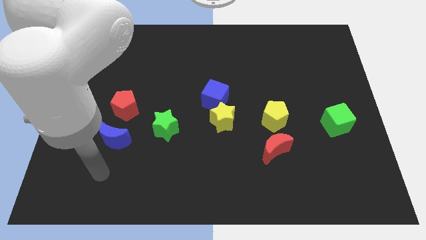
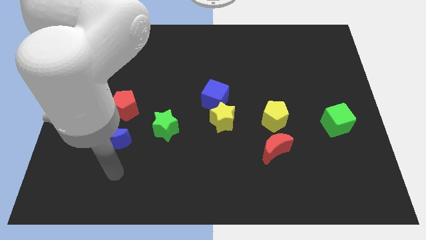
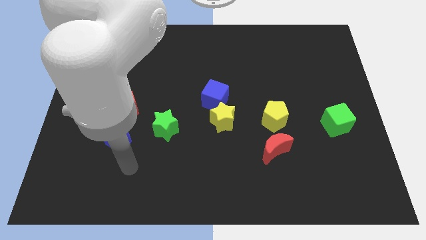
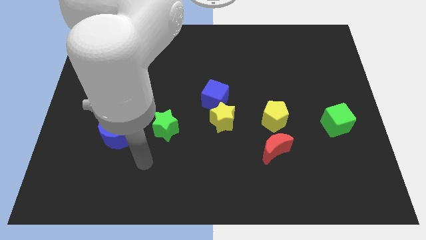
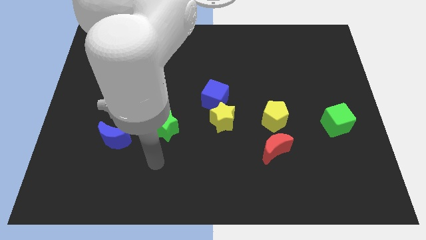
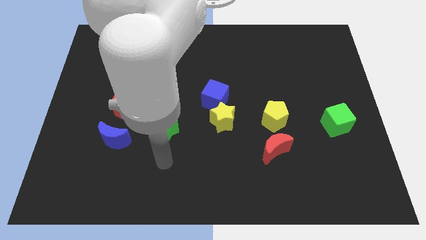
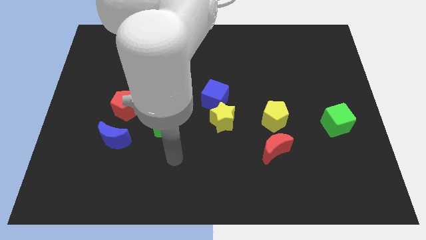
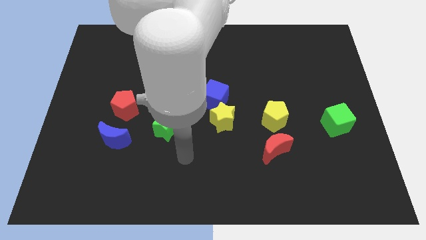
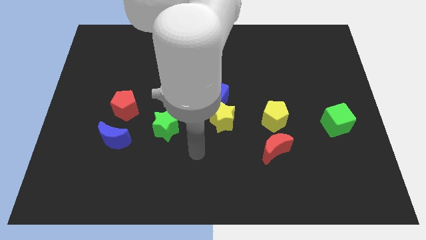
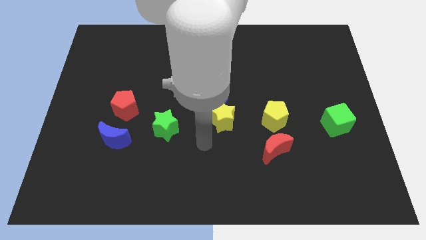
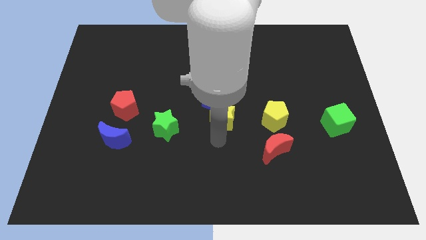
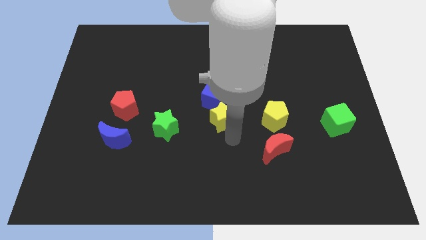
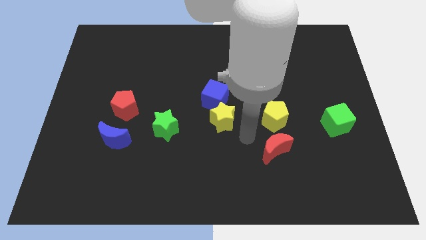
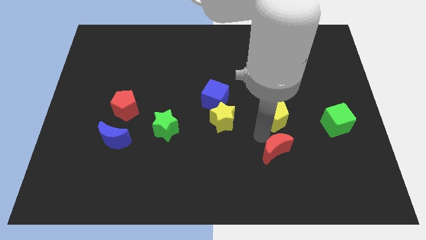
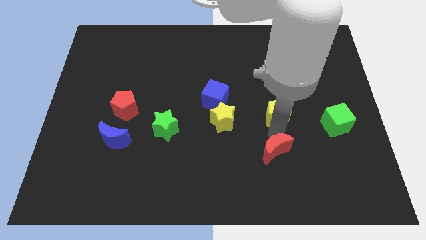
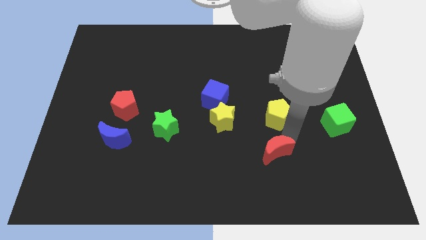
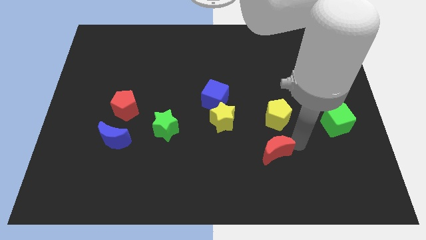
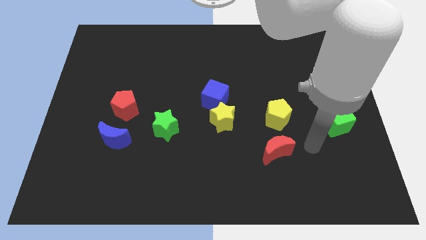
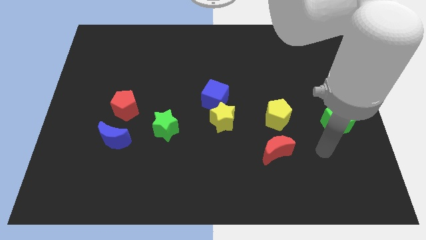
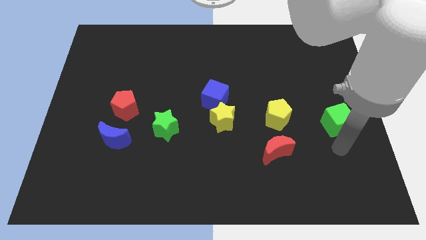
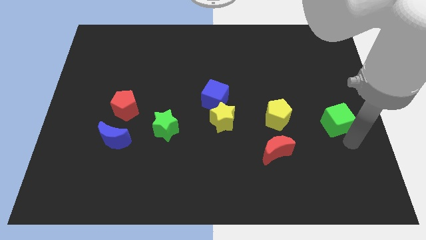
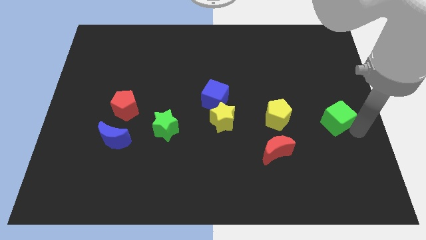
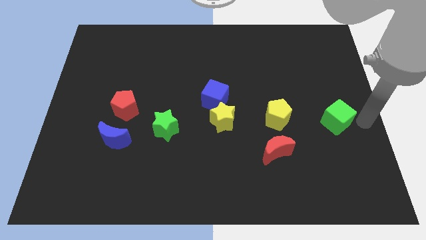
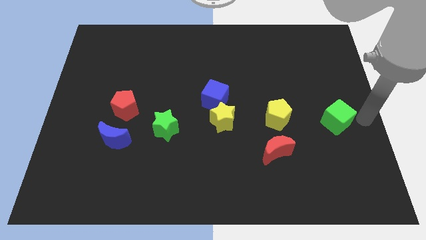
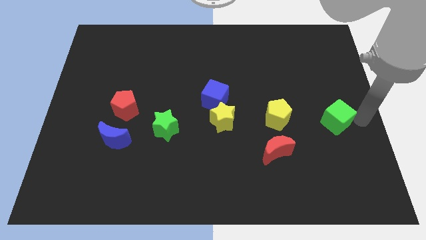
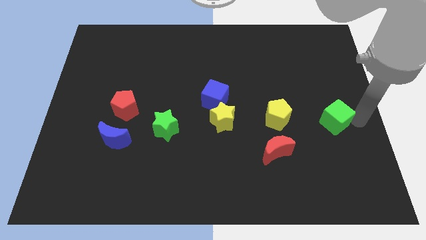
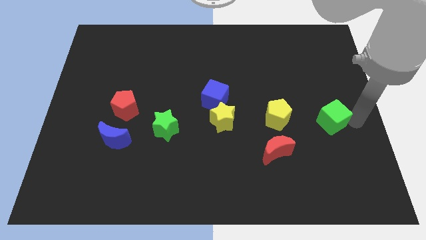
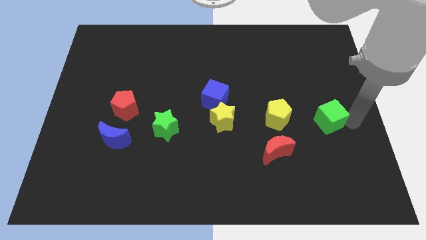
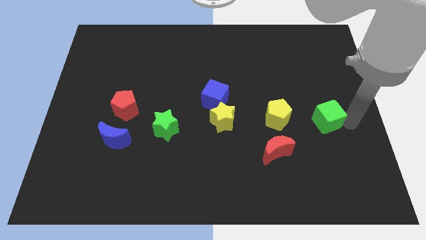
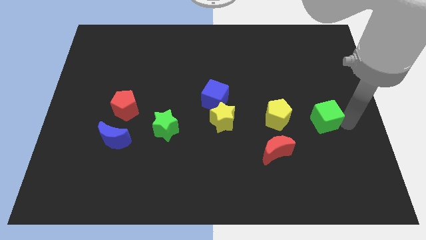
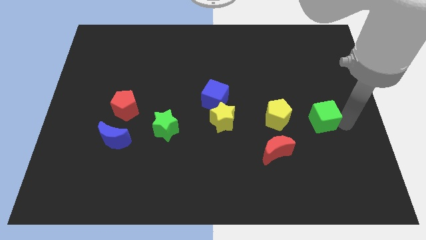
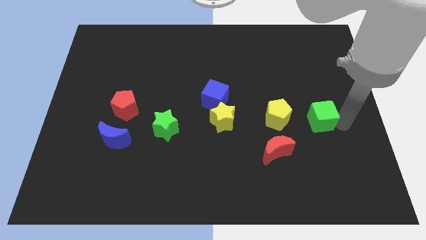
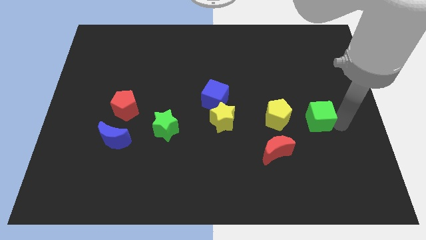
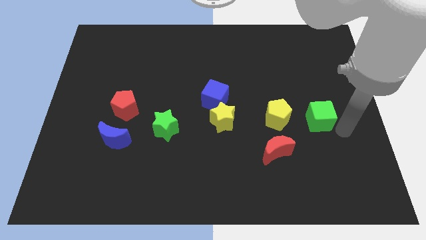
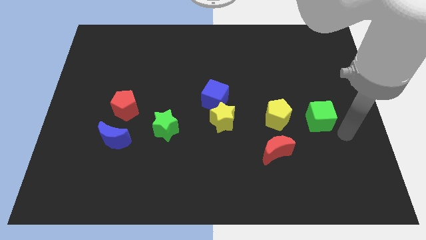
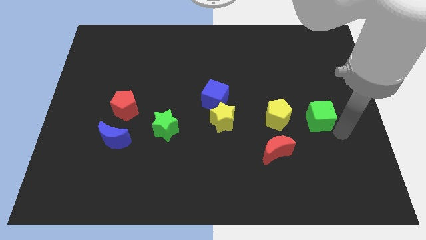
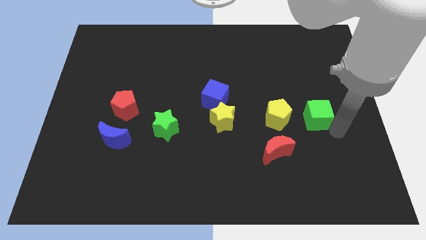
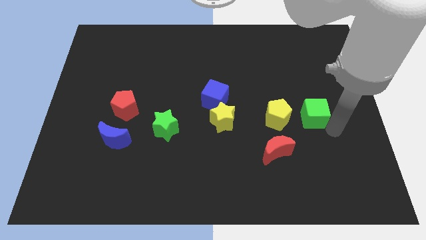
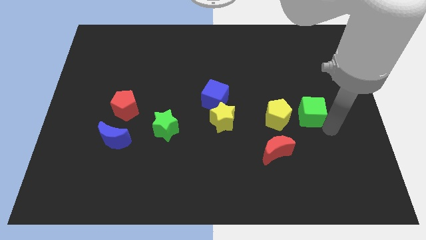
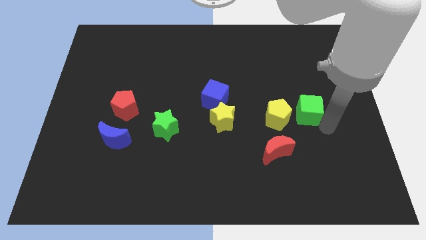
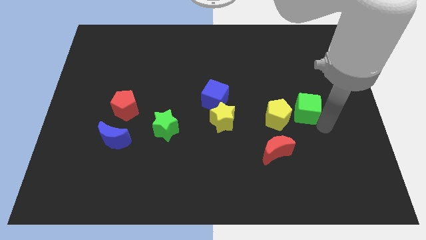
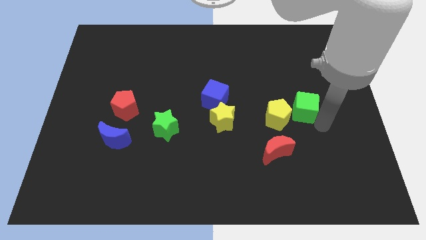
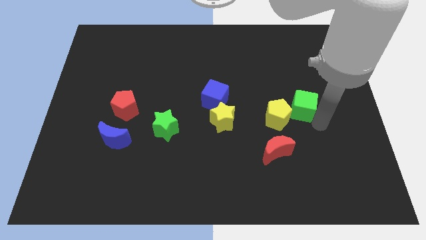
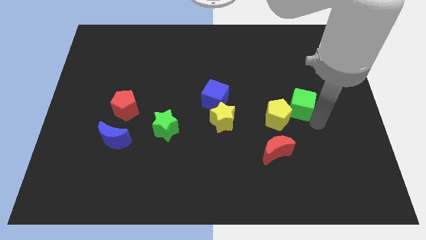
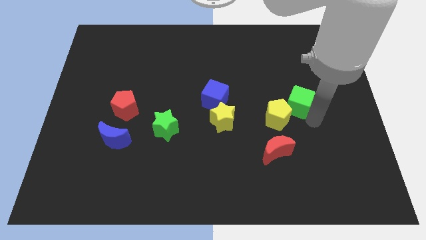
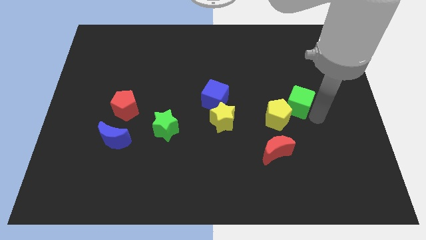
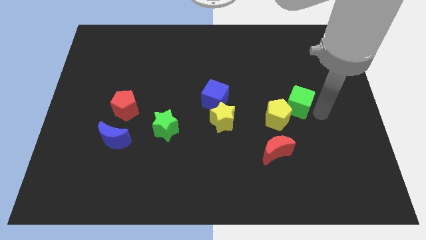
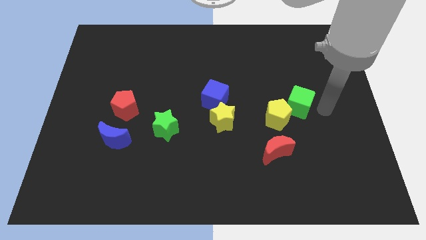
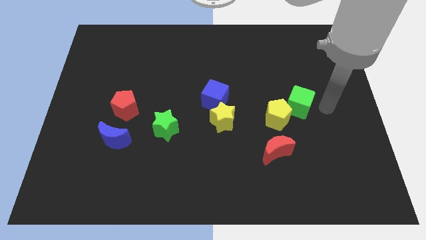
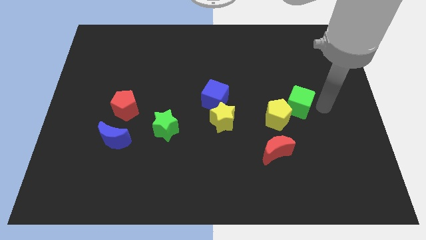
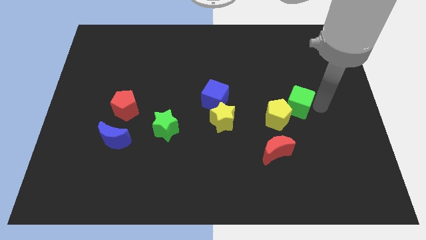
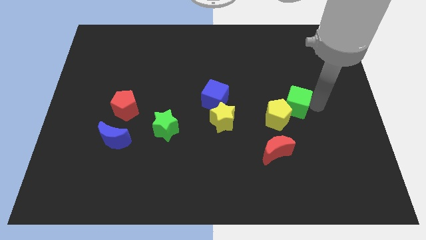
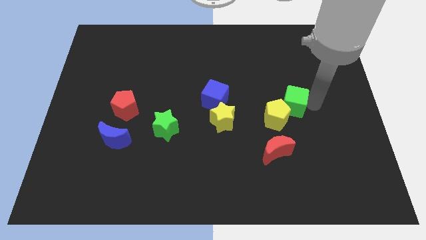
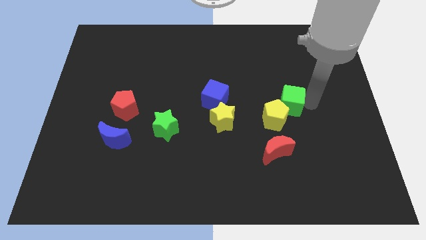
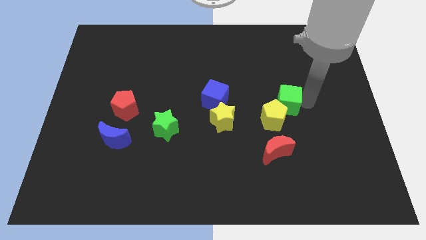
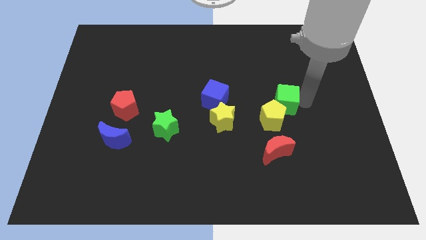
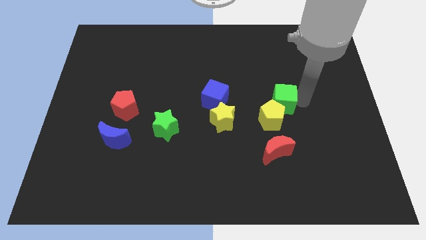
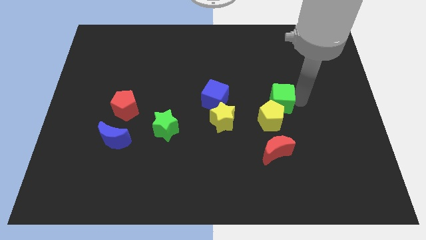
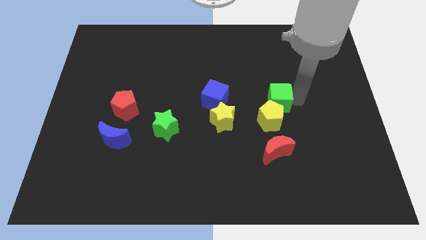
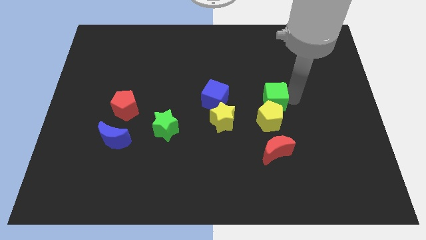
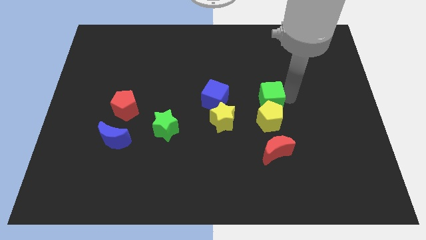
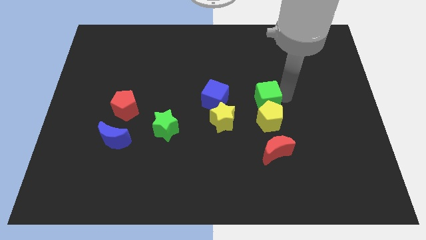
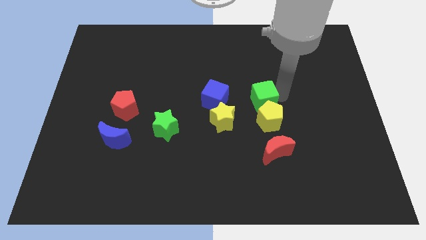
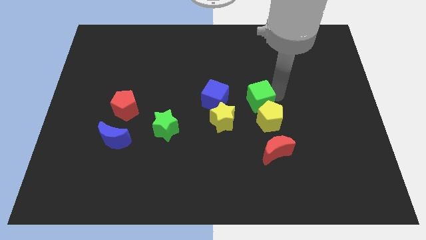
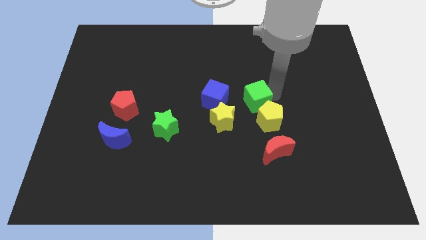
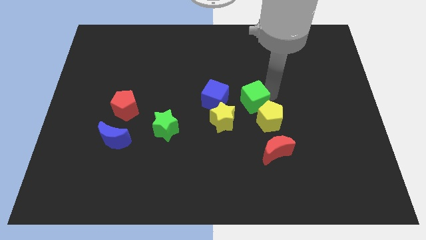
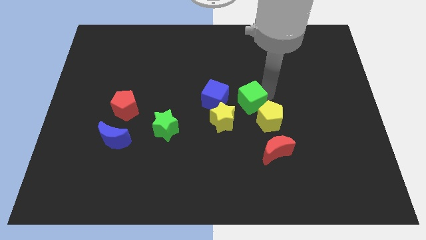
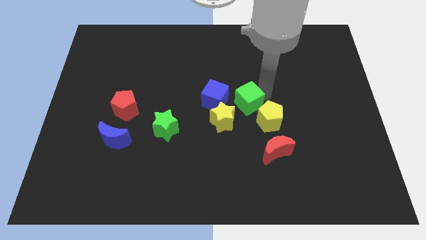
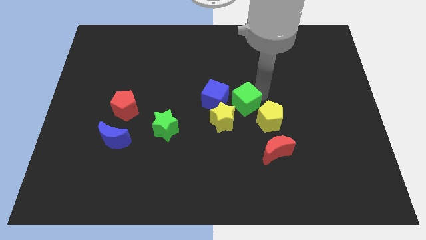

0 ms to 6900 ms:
put the green cube to the bottom right side of the blue cube
